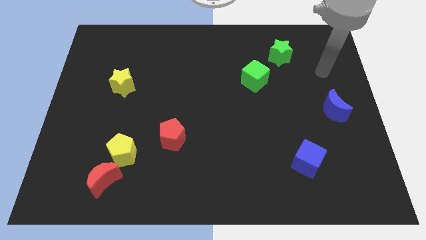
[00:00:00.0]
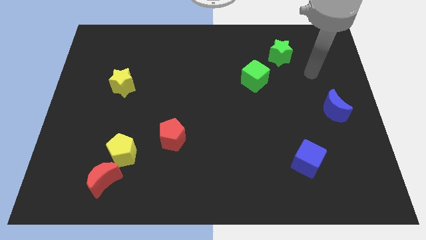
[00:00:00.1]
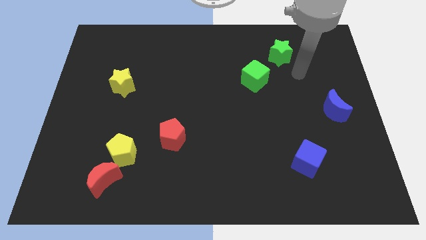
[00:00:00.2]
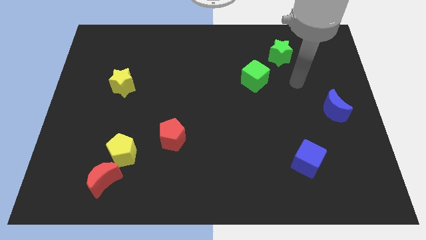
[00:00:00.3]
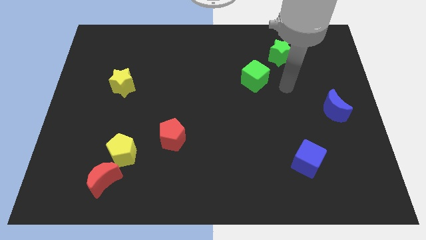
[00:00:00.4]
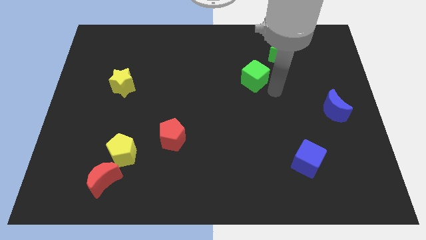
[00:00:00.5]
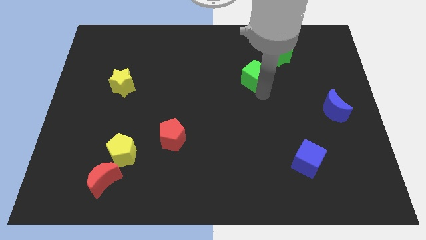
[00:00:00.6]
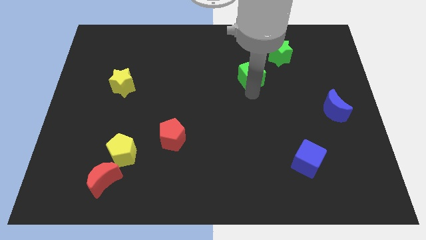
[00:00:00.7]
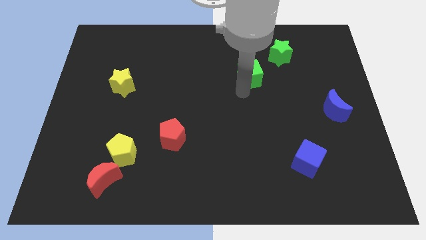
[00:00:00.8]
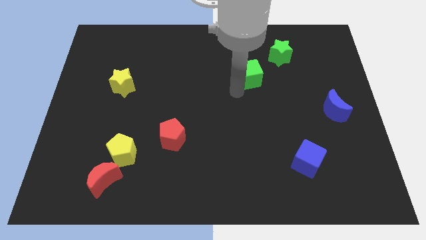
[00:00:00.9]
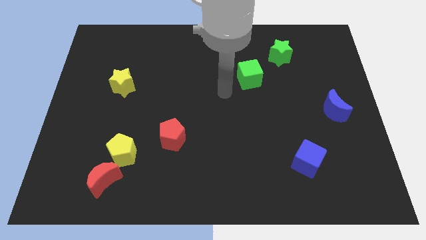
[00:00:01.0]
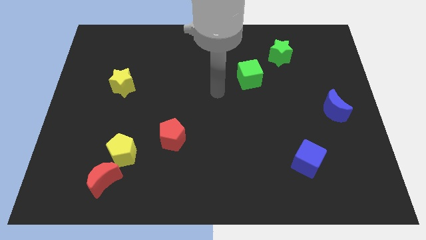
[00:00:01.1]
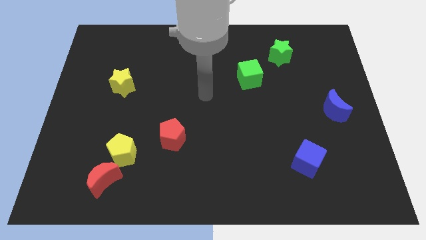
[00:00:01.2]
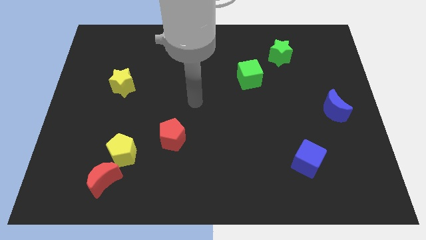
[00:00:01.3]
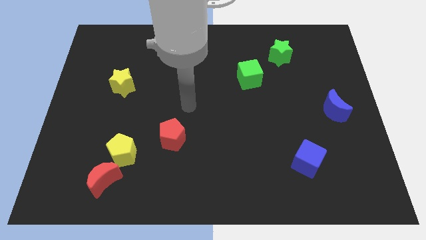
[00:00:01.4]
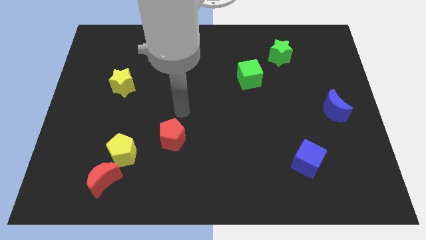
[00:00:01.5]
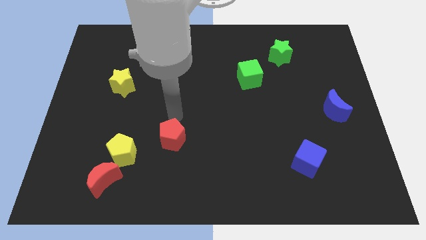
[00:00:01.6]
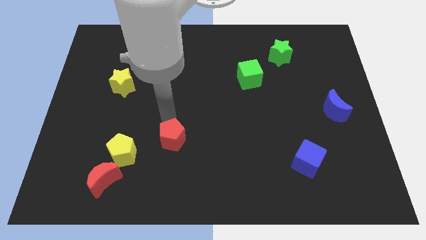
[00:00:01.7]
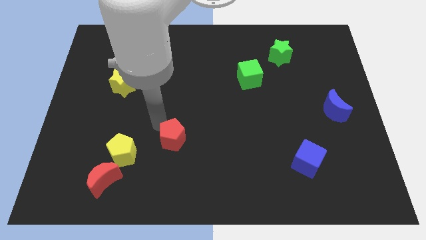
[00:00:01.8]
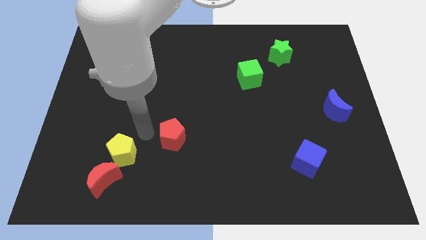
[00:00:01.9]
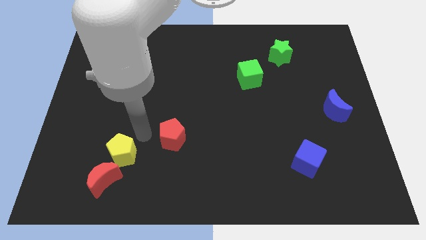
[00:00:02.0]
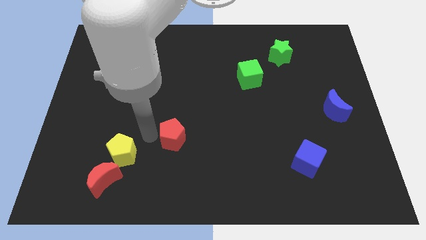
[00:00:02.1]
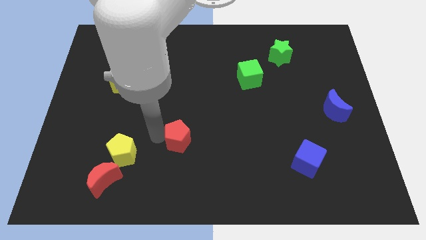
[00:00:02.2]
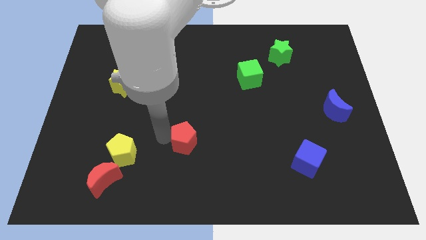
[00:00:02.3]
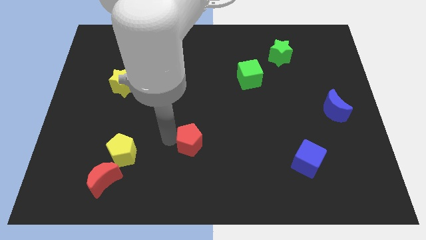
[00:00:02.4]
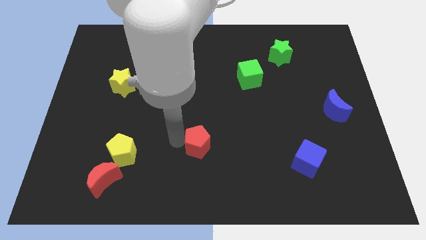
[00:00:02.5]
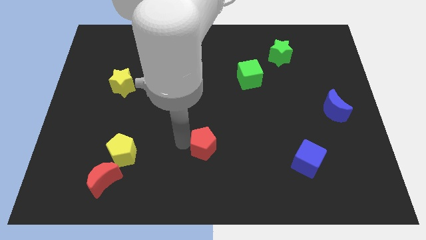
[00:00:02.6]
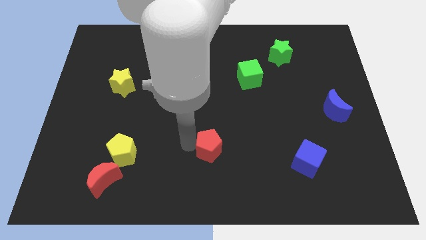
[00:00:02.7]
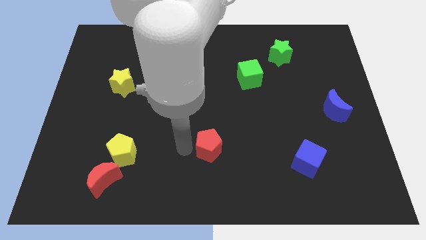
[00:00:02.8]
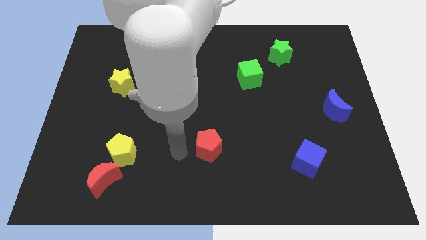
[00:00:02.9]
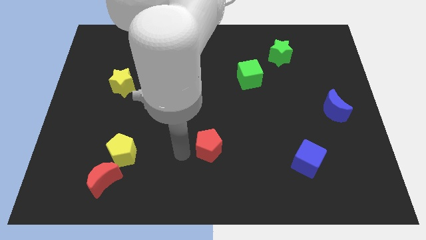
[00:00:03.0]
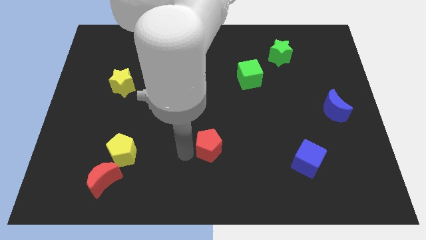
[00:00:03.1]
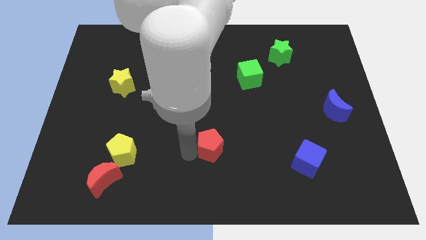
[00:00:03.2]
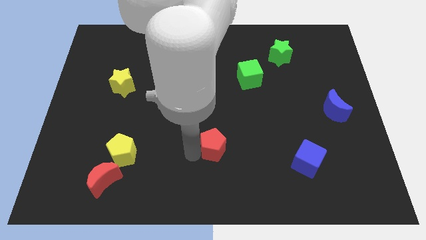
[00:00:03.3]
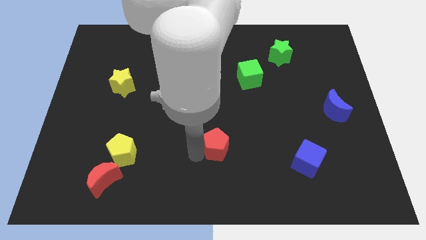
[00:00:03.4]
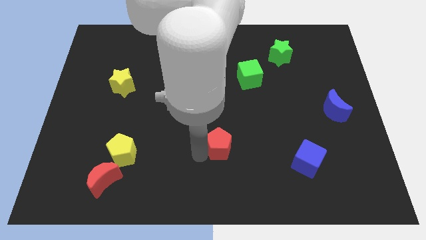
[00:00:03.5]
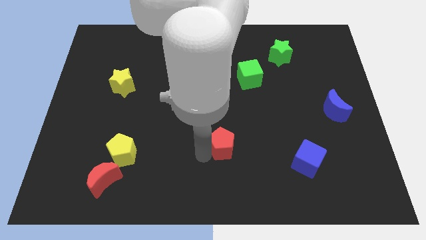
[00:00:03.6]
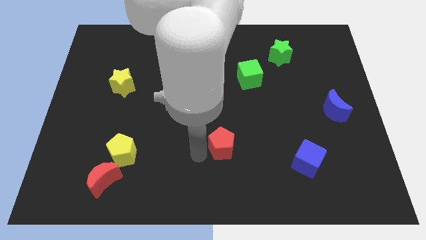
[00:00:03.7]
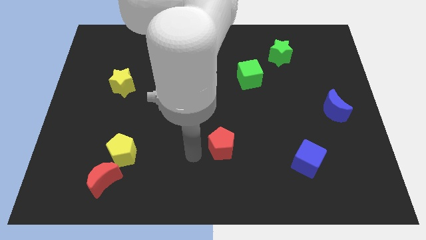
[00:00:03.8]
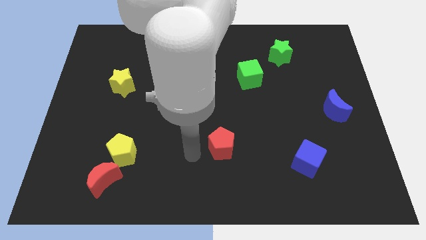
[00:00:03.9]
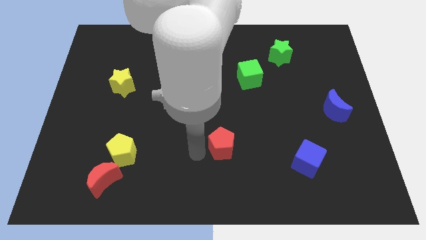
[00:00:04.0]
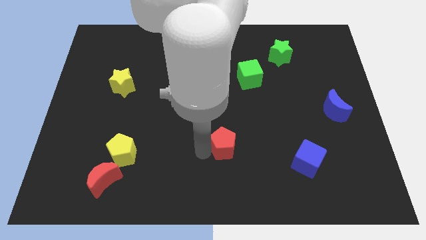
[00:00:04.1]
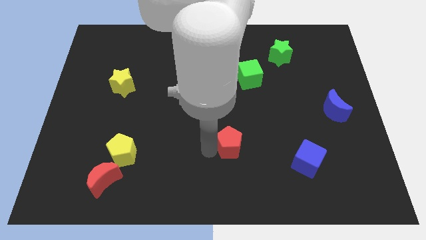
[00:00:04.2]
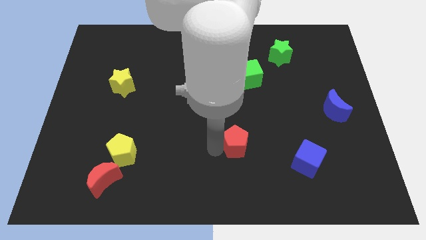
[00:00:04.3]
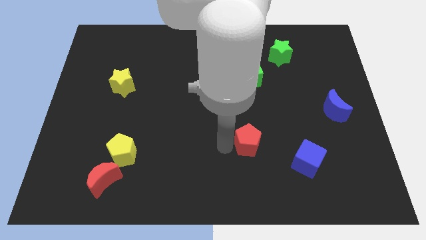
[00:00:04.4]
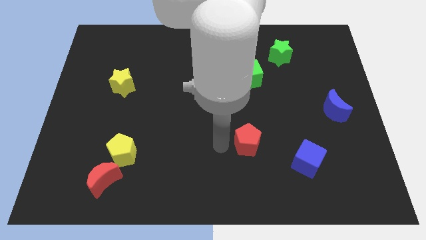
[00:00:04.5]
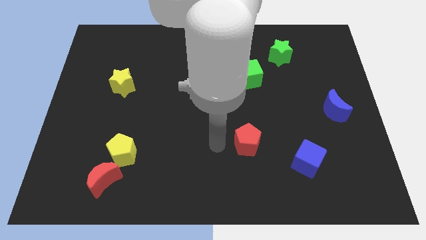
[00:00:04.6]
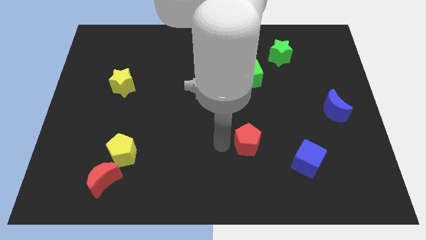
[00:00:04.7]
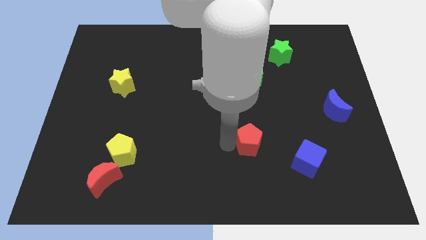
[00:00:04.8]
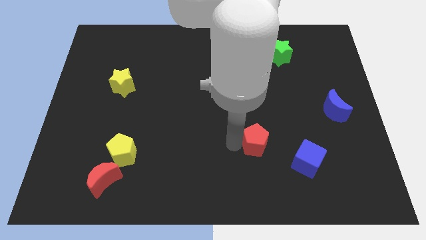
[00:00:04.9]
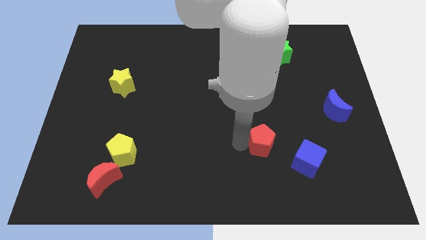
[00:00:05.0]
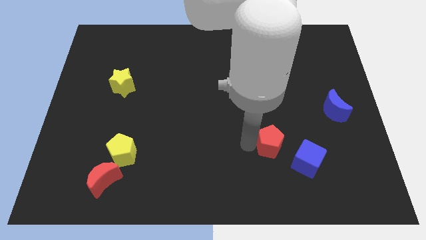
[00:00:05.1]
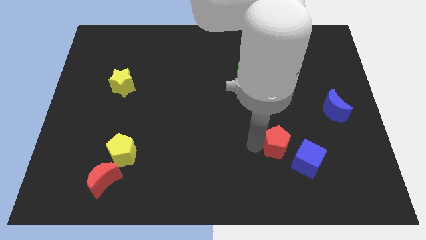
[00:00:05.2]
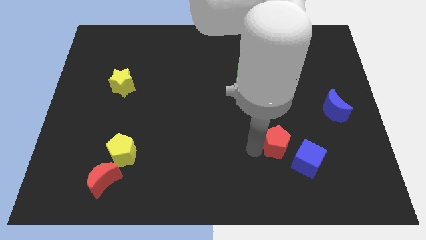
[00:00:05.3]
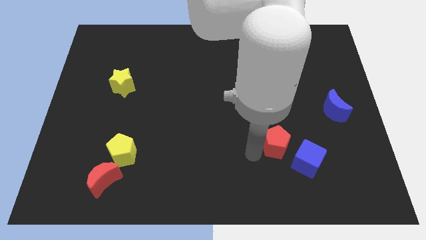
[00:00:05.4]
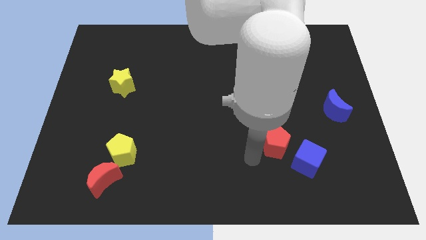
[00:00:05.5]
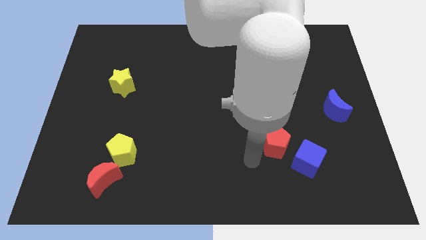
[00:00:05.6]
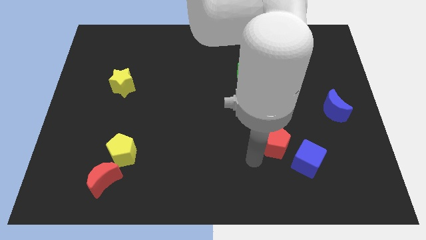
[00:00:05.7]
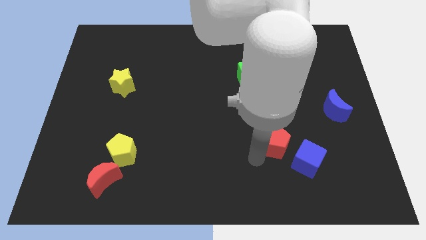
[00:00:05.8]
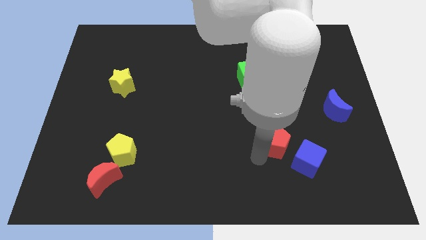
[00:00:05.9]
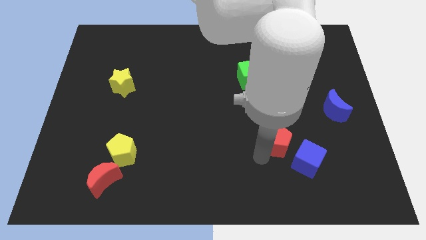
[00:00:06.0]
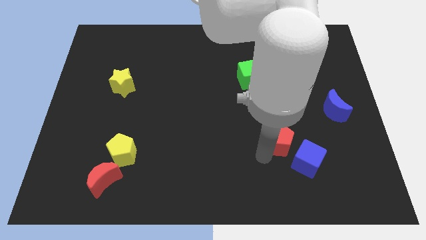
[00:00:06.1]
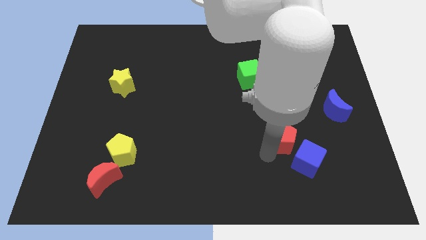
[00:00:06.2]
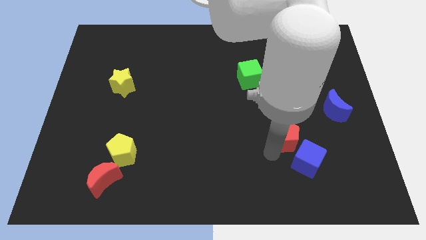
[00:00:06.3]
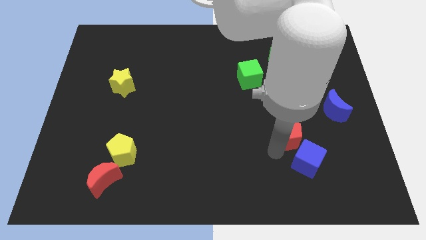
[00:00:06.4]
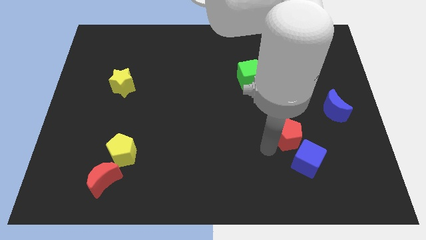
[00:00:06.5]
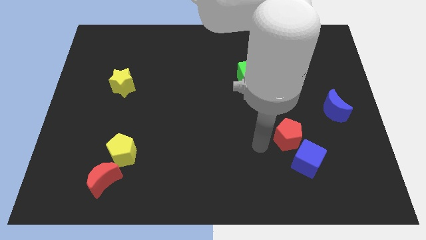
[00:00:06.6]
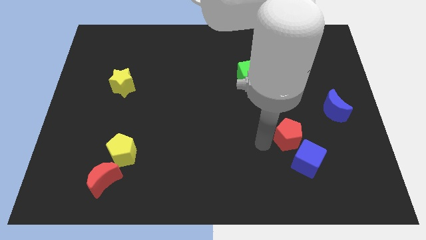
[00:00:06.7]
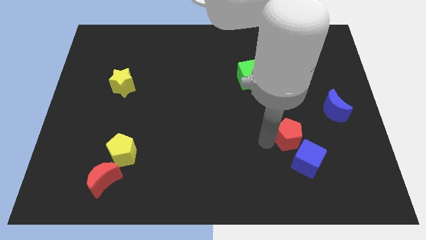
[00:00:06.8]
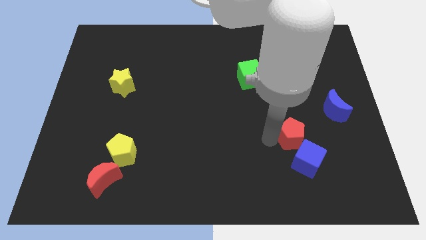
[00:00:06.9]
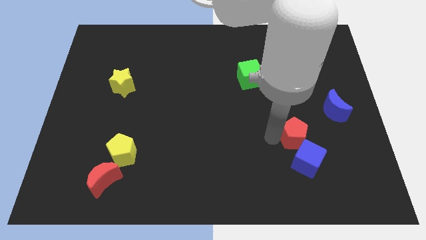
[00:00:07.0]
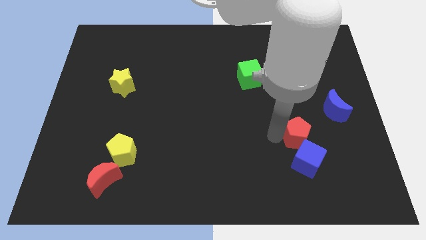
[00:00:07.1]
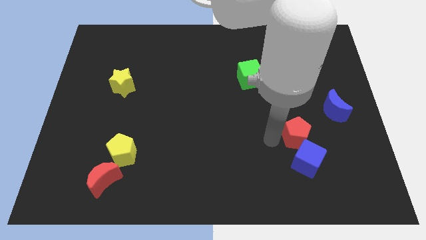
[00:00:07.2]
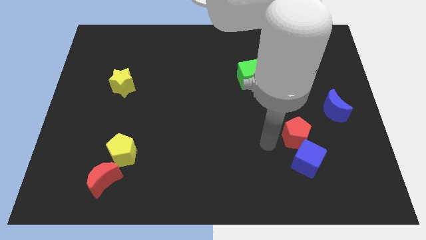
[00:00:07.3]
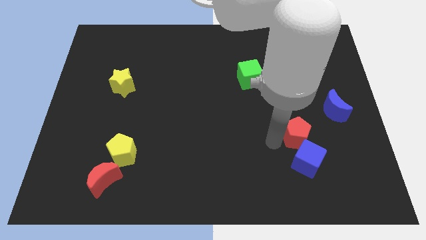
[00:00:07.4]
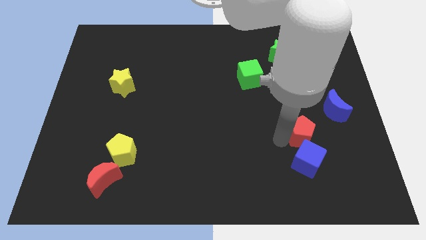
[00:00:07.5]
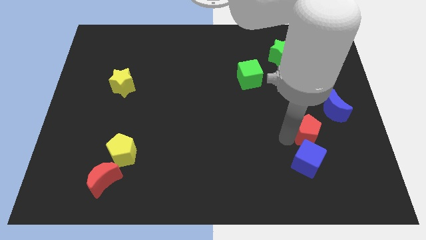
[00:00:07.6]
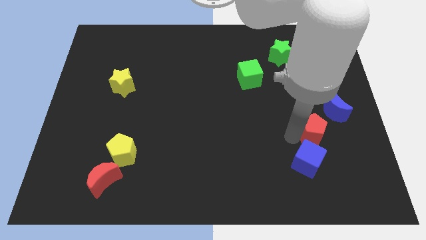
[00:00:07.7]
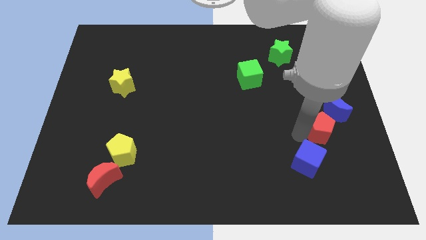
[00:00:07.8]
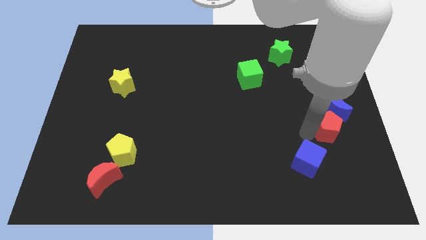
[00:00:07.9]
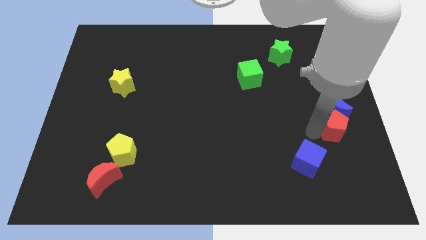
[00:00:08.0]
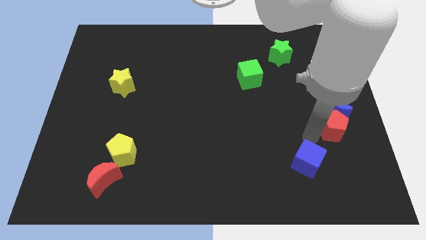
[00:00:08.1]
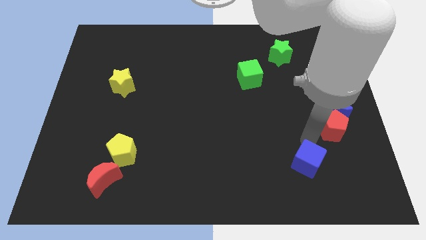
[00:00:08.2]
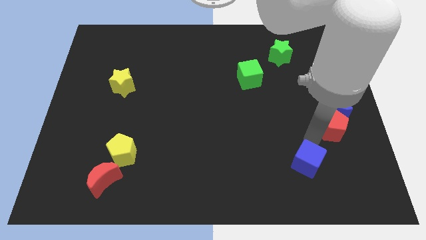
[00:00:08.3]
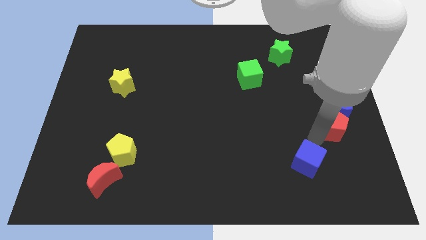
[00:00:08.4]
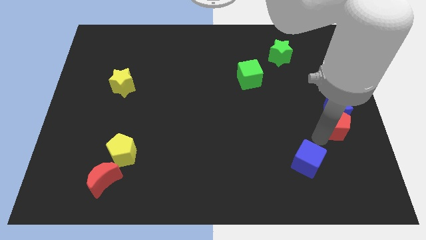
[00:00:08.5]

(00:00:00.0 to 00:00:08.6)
push the red pentagon to the right side
